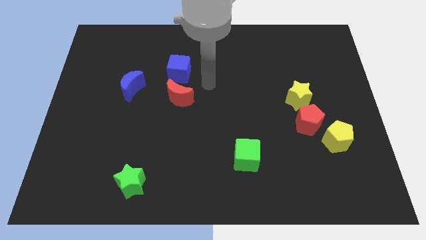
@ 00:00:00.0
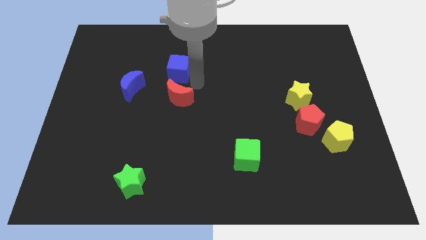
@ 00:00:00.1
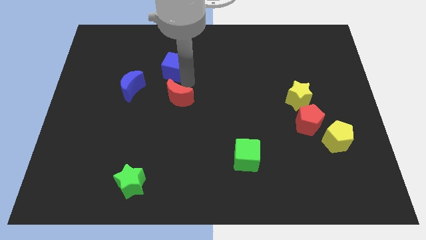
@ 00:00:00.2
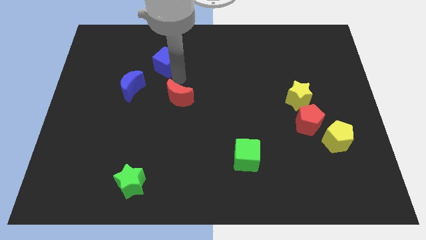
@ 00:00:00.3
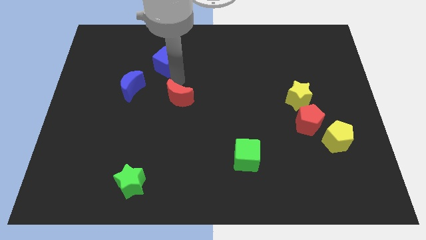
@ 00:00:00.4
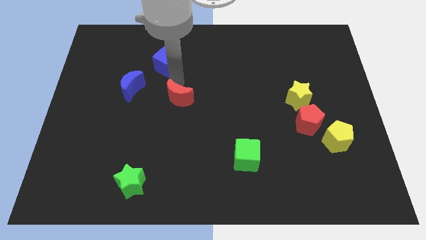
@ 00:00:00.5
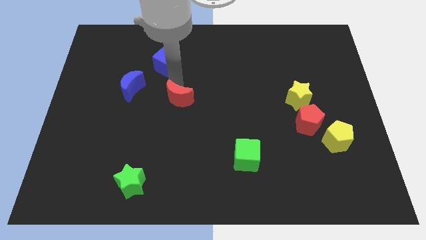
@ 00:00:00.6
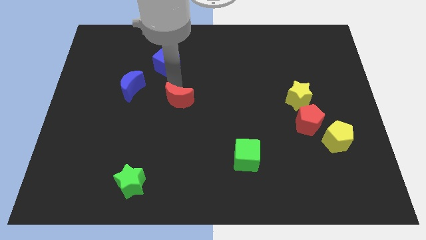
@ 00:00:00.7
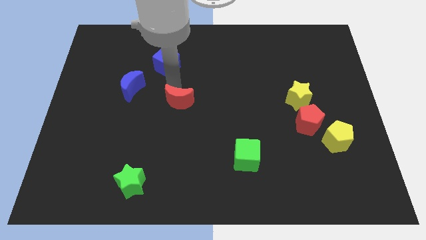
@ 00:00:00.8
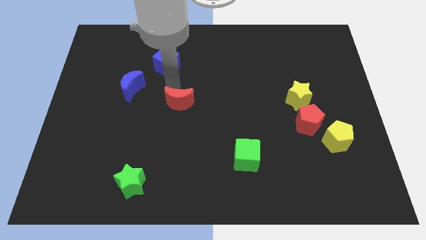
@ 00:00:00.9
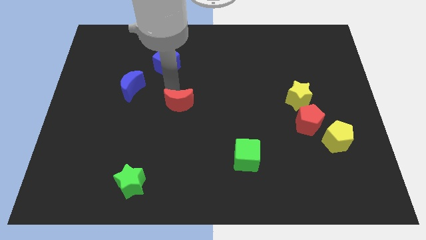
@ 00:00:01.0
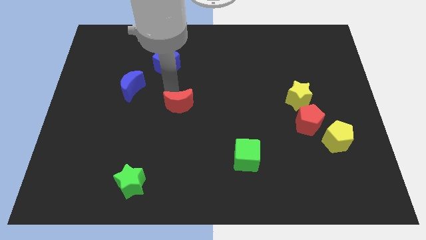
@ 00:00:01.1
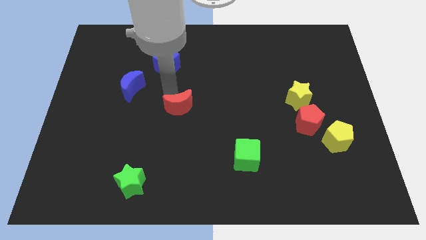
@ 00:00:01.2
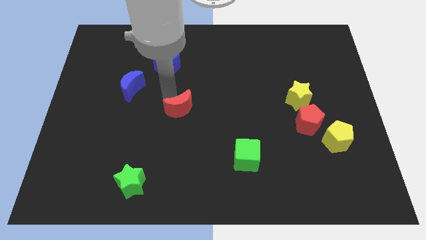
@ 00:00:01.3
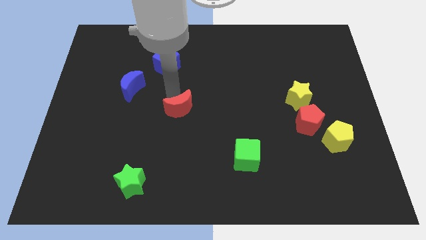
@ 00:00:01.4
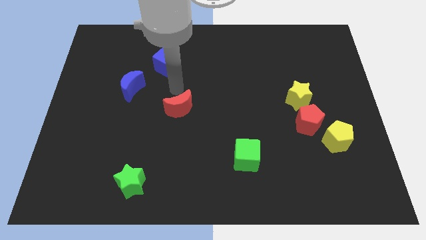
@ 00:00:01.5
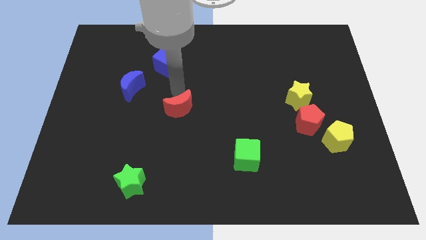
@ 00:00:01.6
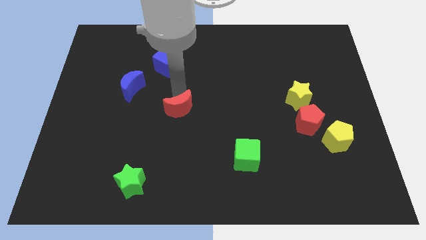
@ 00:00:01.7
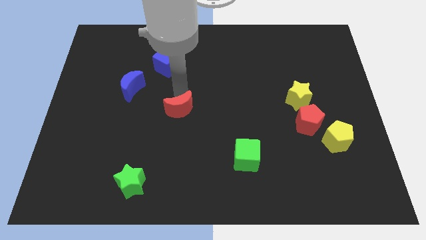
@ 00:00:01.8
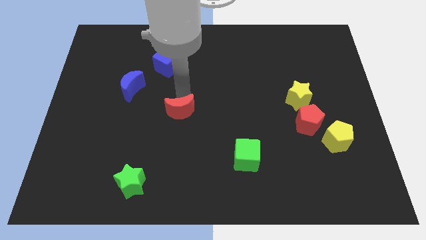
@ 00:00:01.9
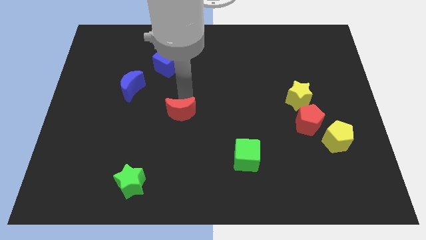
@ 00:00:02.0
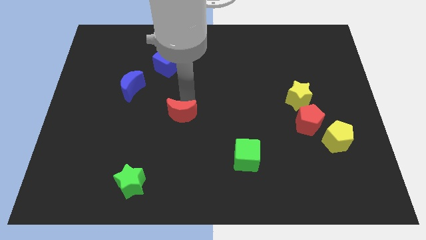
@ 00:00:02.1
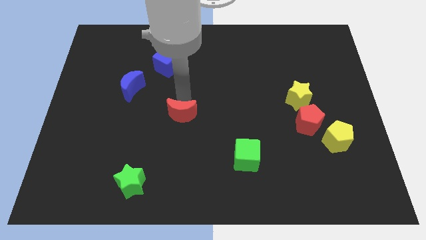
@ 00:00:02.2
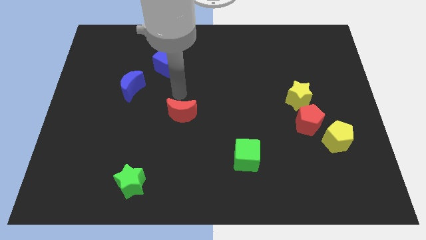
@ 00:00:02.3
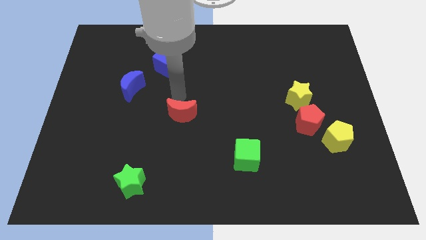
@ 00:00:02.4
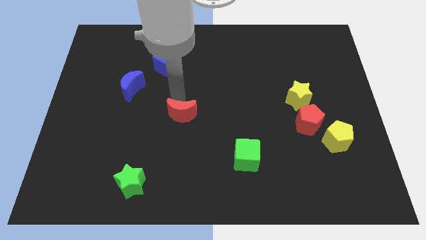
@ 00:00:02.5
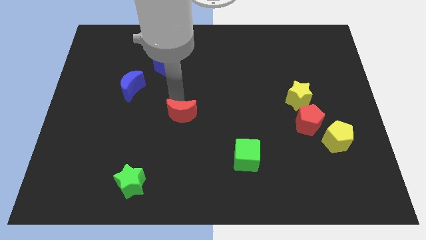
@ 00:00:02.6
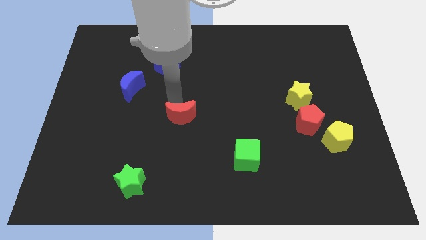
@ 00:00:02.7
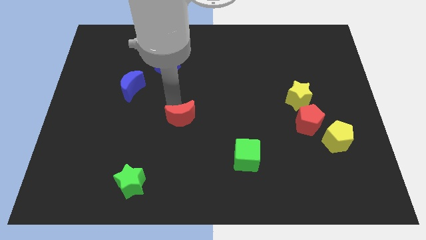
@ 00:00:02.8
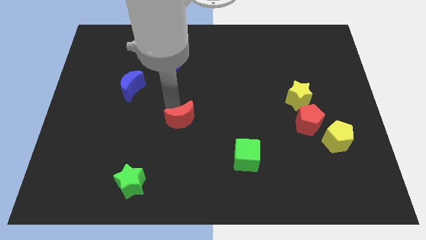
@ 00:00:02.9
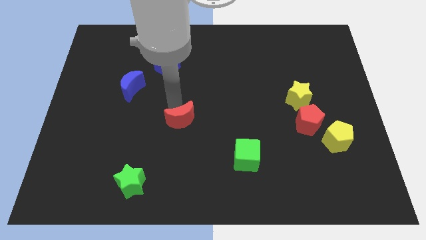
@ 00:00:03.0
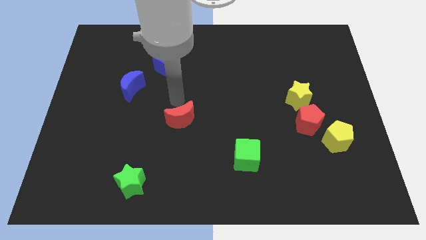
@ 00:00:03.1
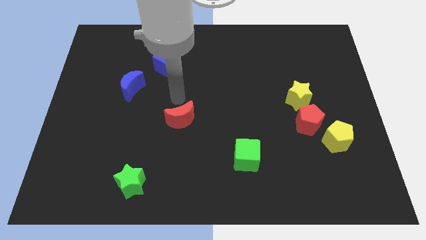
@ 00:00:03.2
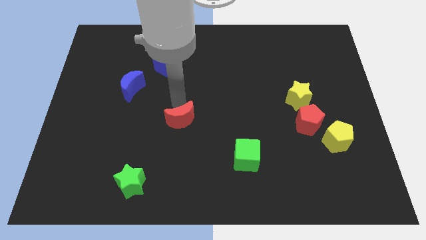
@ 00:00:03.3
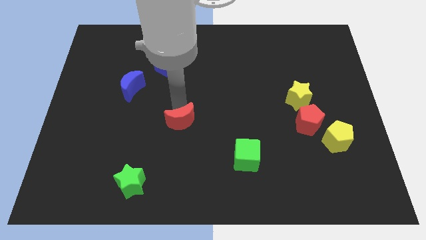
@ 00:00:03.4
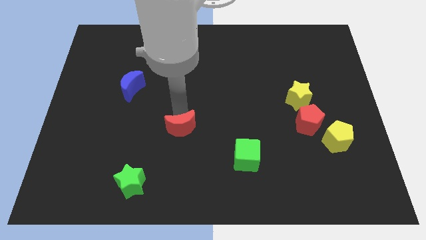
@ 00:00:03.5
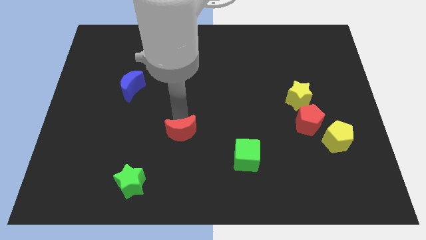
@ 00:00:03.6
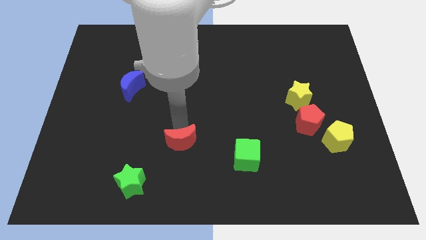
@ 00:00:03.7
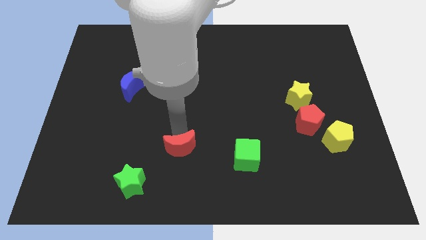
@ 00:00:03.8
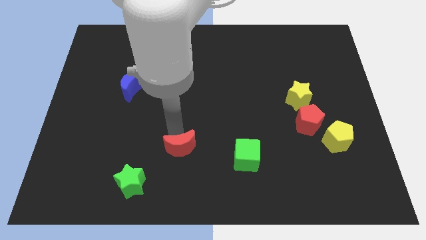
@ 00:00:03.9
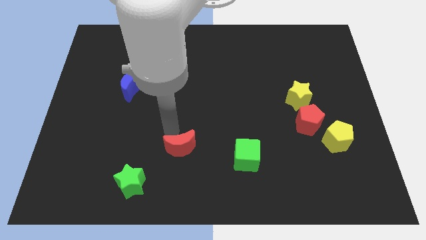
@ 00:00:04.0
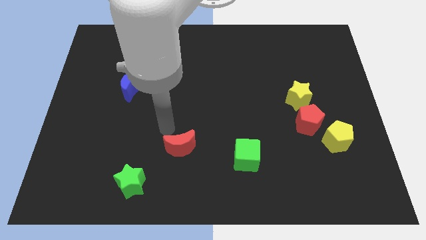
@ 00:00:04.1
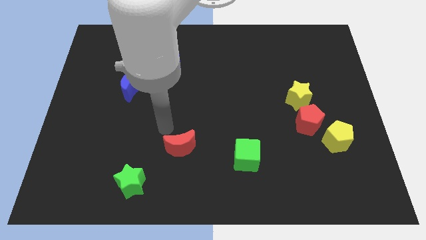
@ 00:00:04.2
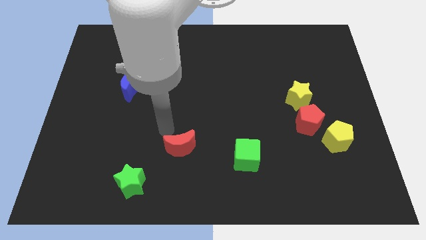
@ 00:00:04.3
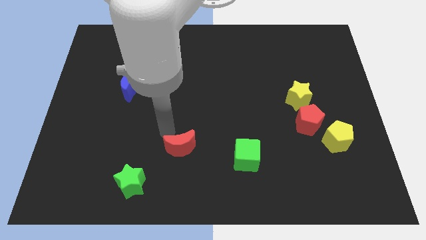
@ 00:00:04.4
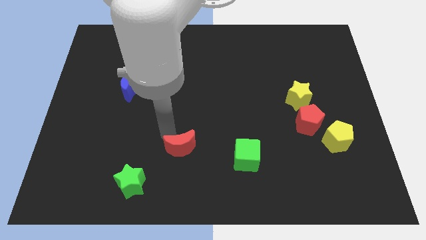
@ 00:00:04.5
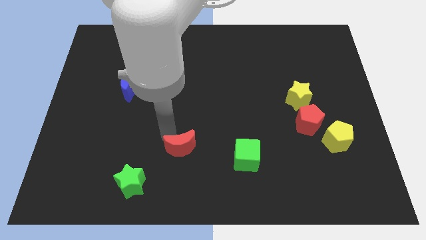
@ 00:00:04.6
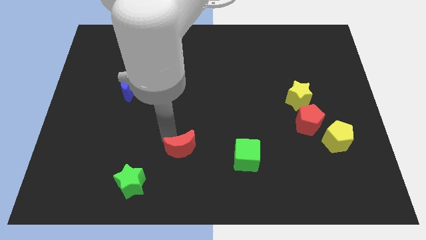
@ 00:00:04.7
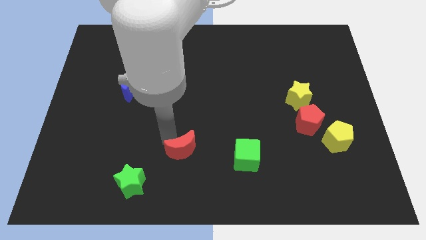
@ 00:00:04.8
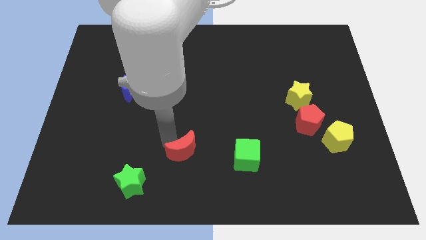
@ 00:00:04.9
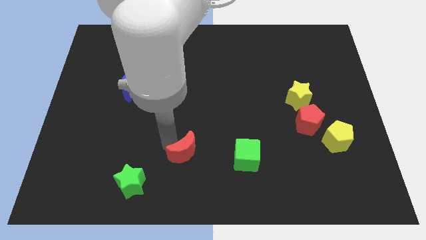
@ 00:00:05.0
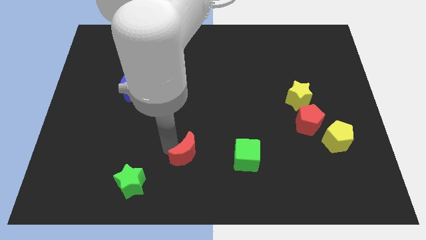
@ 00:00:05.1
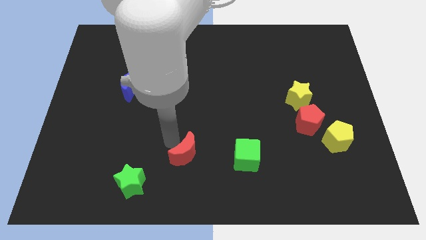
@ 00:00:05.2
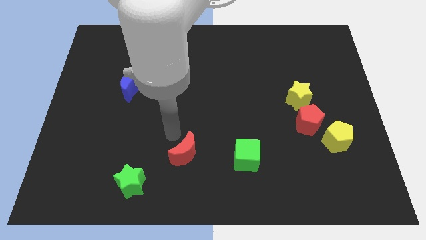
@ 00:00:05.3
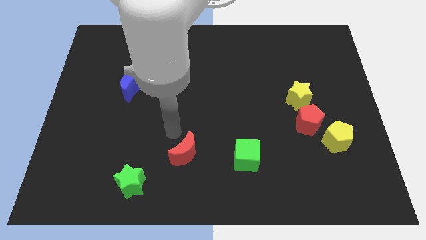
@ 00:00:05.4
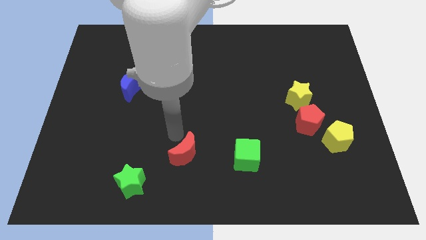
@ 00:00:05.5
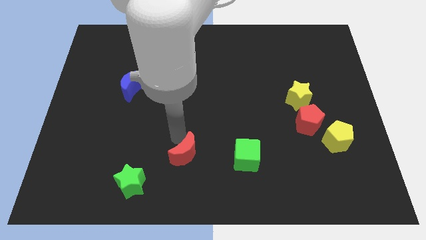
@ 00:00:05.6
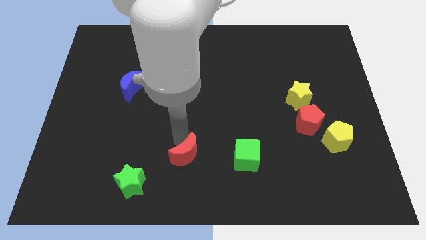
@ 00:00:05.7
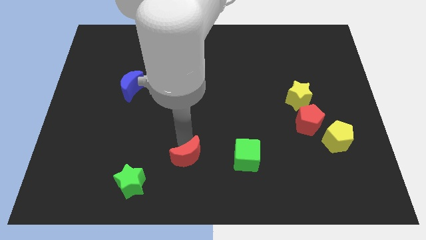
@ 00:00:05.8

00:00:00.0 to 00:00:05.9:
push the red moon to the bottom side
